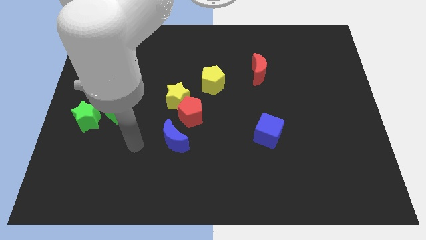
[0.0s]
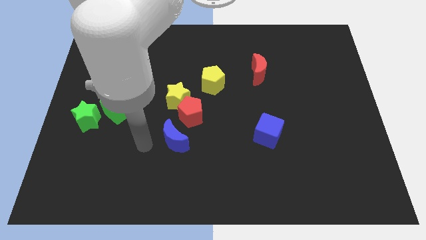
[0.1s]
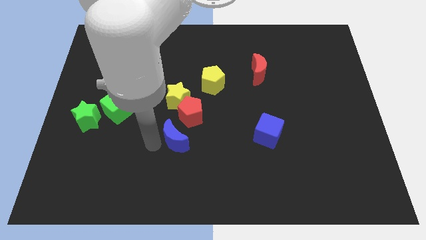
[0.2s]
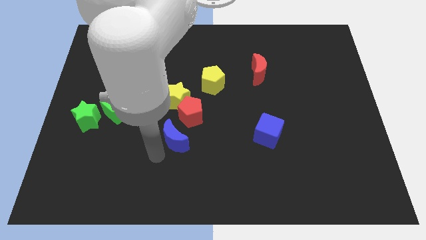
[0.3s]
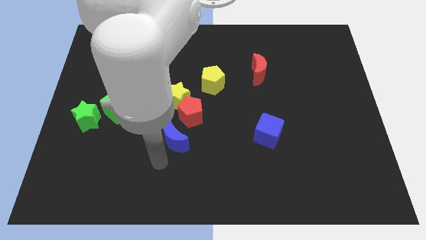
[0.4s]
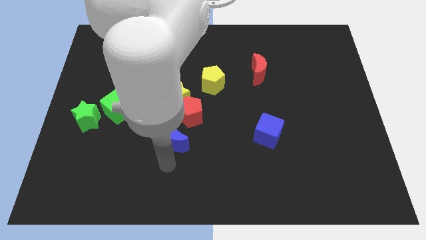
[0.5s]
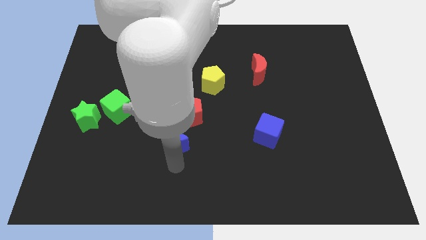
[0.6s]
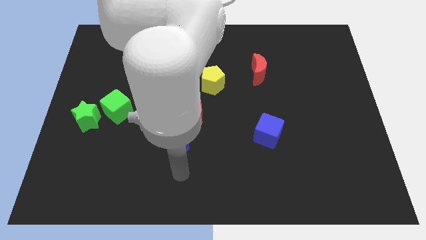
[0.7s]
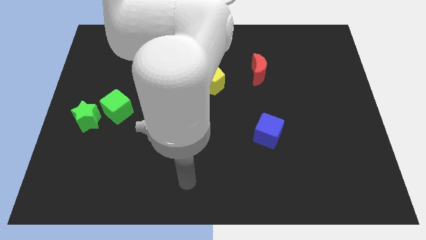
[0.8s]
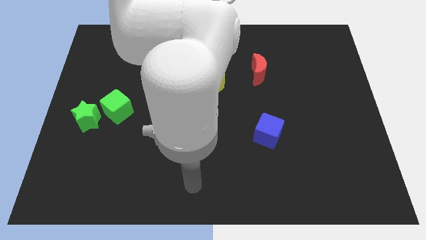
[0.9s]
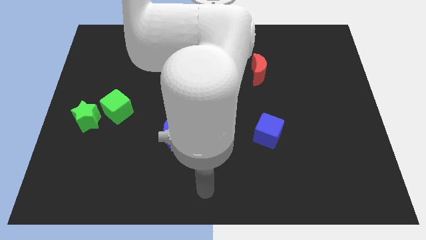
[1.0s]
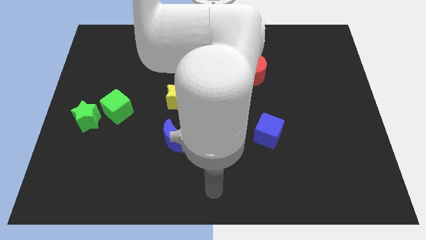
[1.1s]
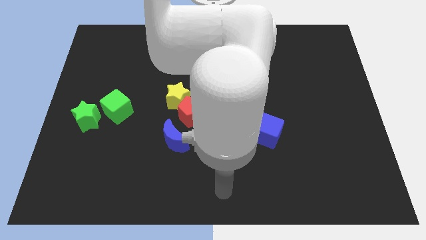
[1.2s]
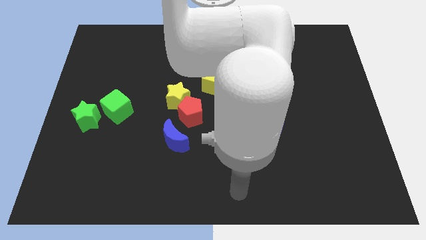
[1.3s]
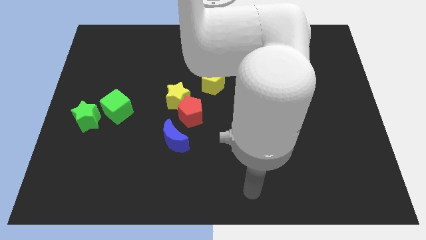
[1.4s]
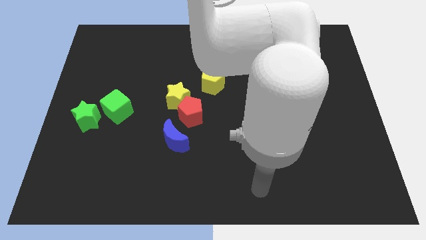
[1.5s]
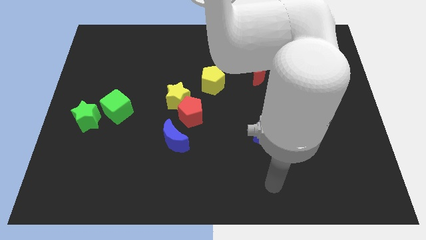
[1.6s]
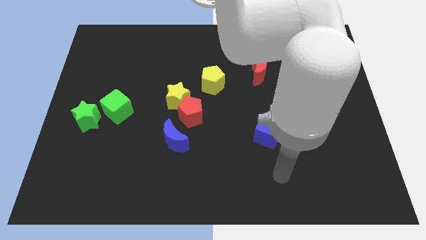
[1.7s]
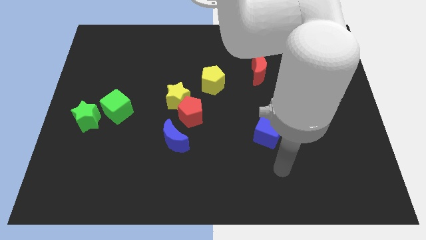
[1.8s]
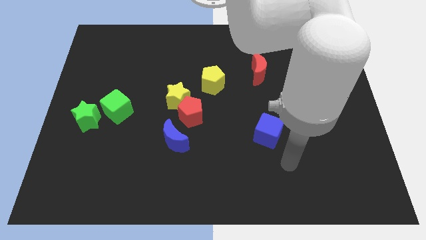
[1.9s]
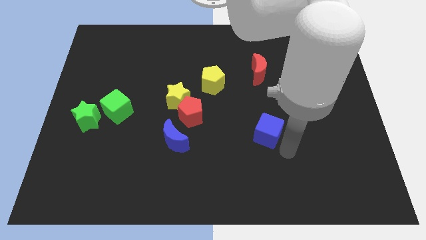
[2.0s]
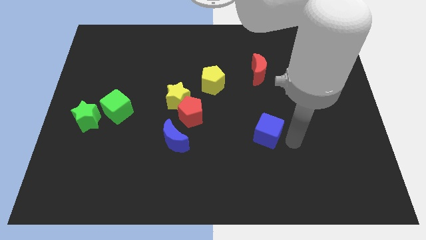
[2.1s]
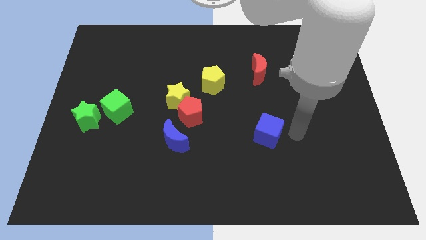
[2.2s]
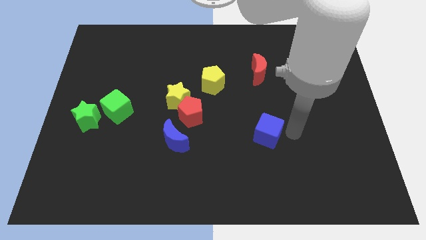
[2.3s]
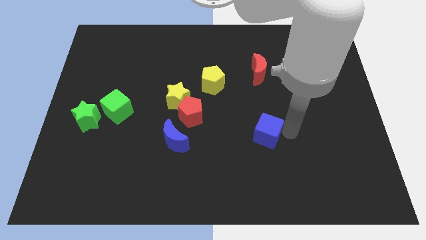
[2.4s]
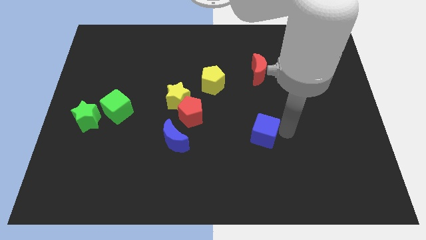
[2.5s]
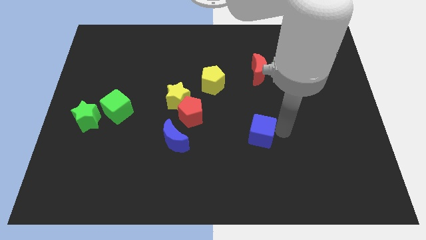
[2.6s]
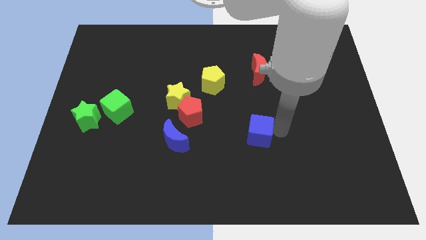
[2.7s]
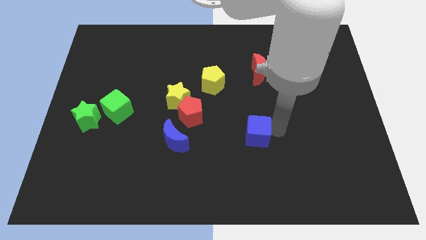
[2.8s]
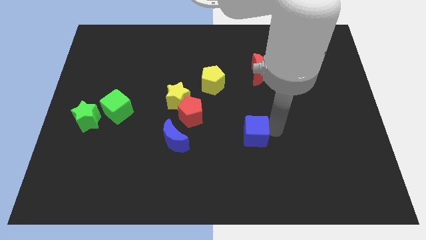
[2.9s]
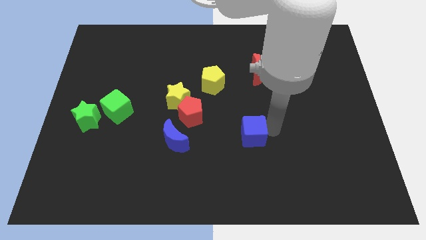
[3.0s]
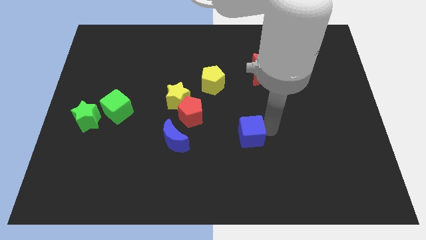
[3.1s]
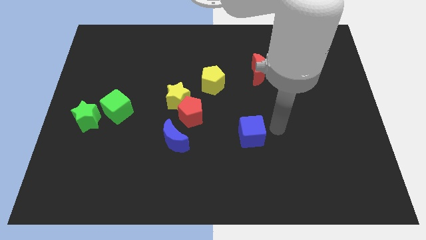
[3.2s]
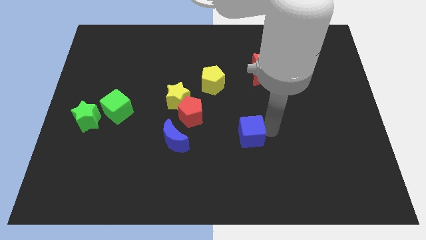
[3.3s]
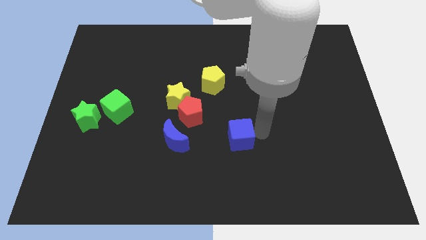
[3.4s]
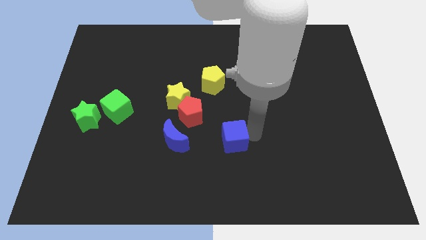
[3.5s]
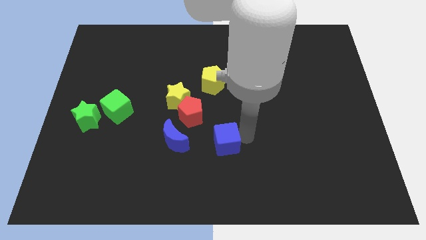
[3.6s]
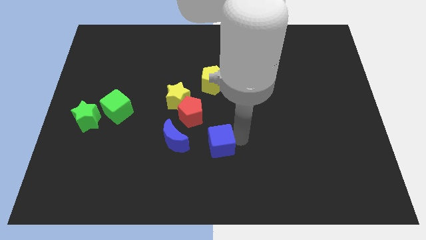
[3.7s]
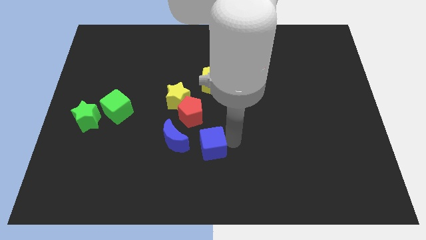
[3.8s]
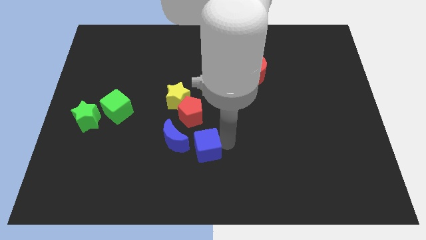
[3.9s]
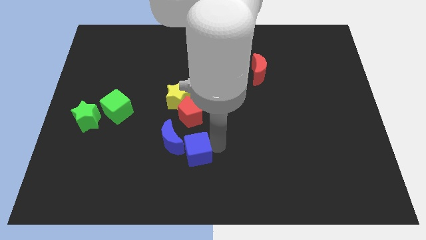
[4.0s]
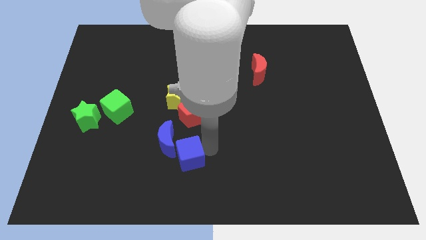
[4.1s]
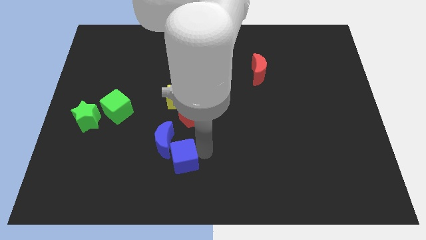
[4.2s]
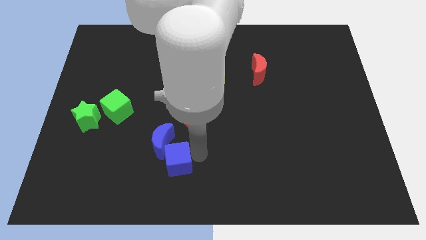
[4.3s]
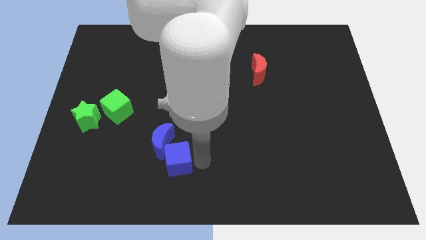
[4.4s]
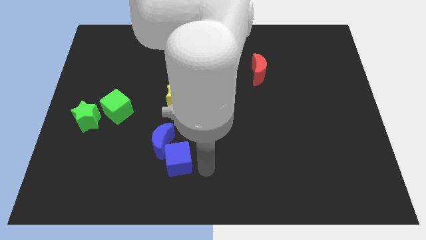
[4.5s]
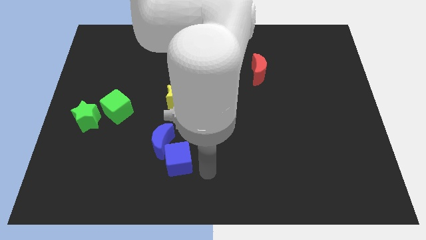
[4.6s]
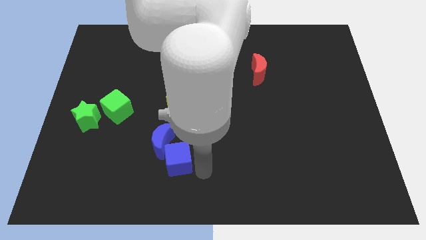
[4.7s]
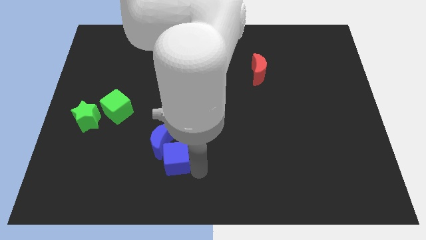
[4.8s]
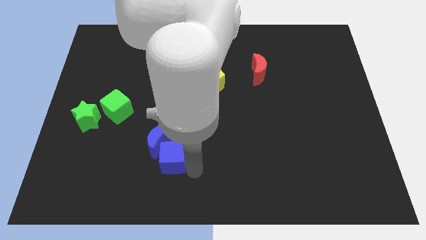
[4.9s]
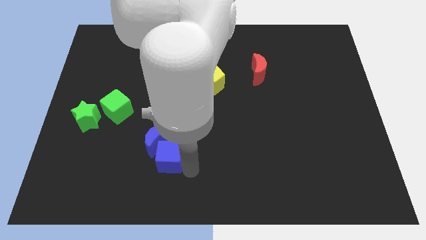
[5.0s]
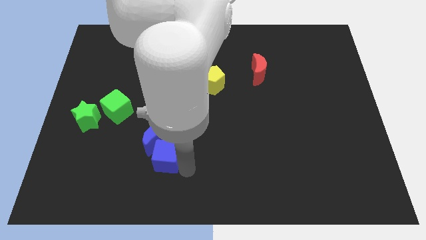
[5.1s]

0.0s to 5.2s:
move the blue cube left

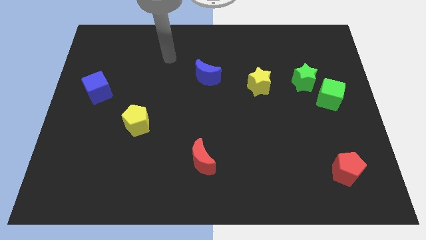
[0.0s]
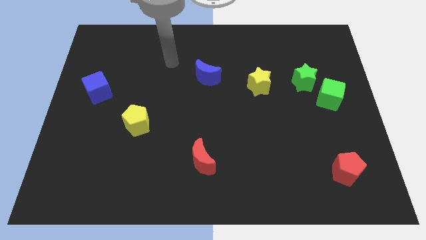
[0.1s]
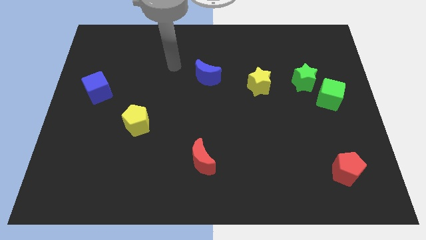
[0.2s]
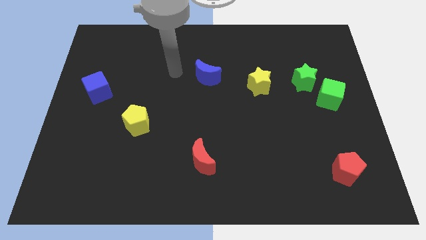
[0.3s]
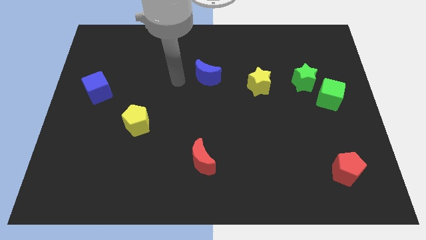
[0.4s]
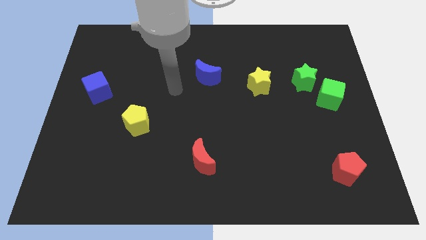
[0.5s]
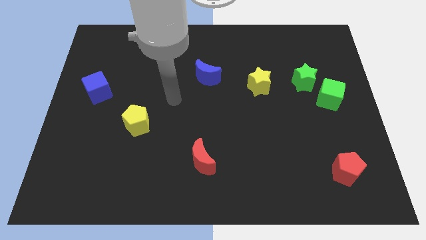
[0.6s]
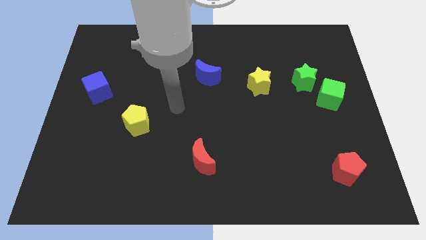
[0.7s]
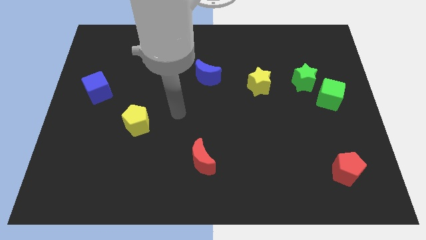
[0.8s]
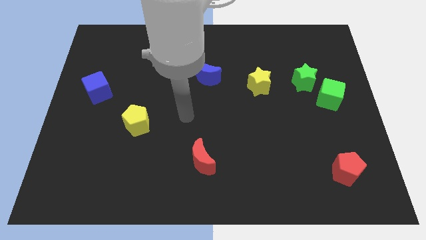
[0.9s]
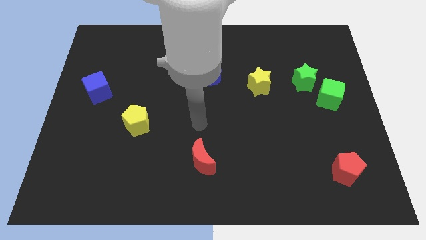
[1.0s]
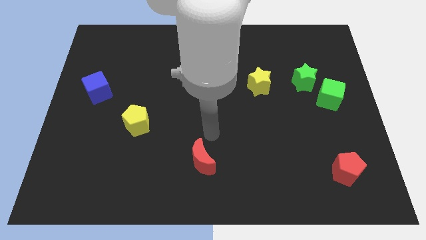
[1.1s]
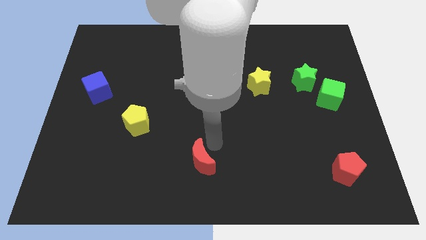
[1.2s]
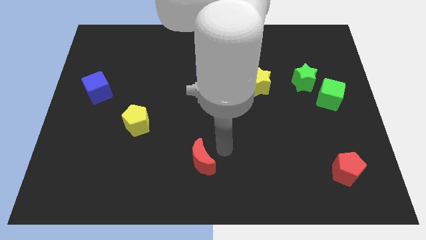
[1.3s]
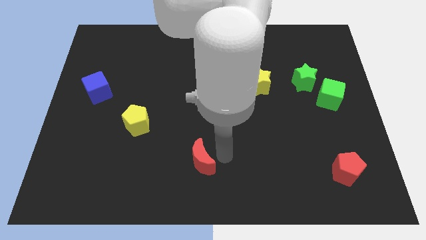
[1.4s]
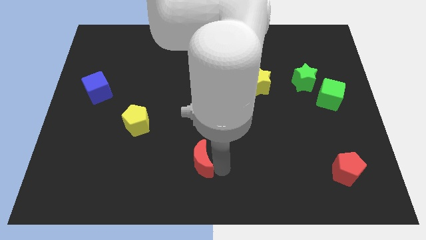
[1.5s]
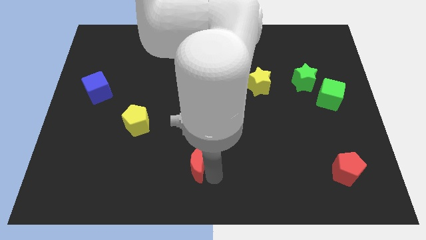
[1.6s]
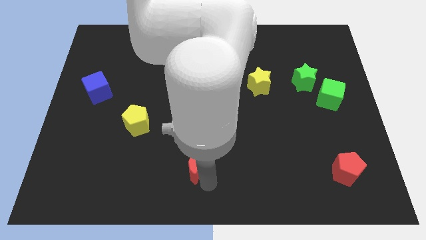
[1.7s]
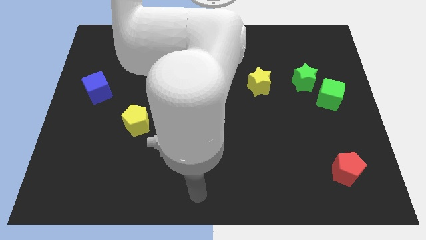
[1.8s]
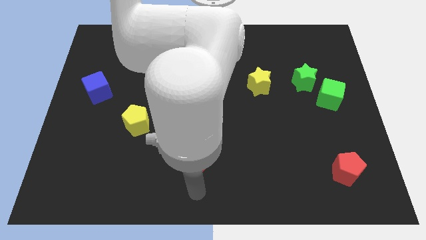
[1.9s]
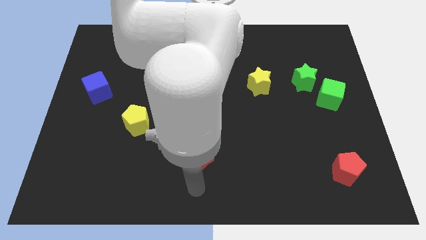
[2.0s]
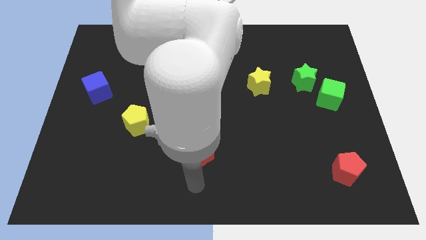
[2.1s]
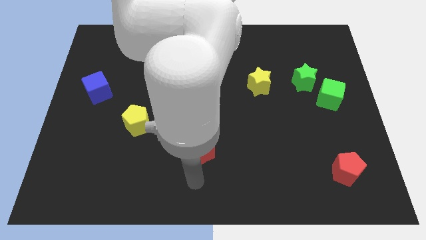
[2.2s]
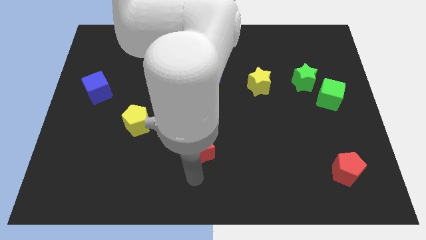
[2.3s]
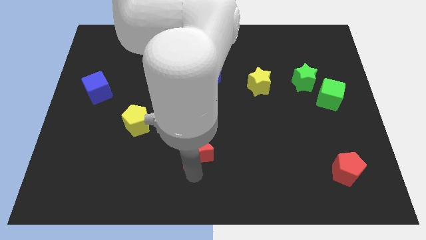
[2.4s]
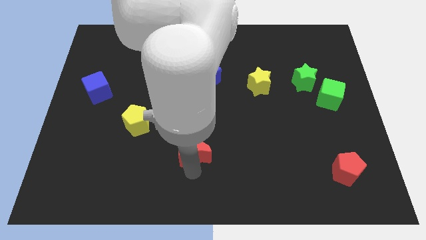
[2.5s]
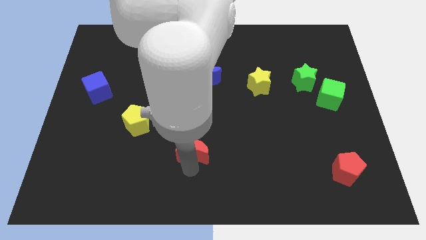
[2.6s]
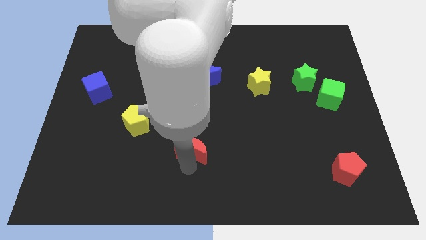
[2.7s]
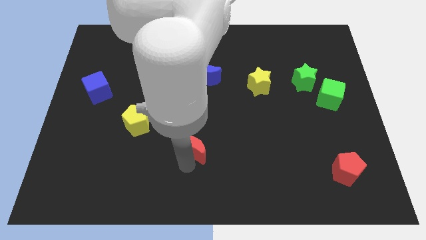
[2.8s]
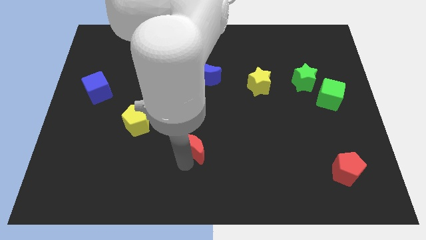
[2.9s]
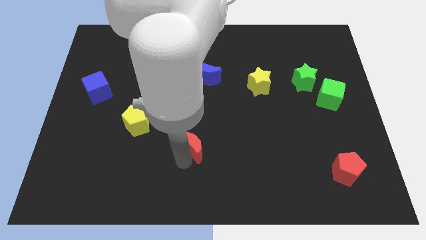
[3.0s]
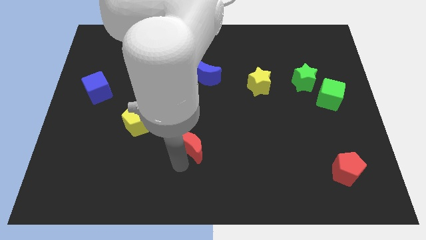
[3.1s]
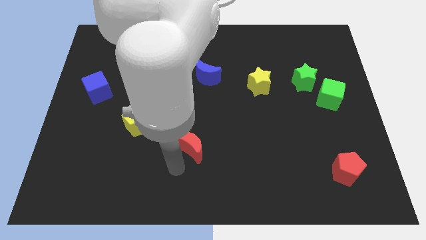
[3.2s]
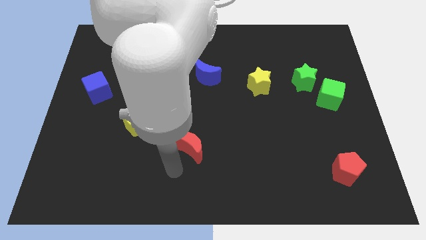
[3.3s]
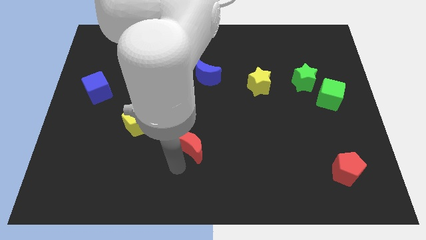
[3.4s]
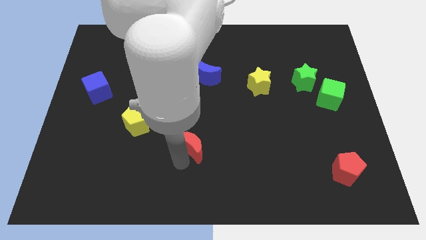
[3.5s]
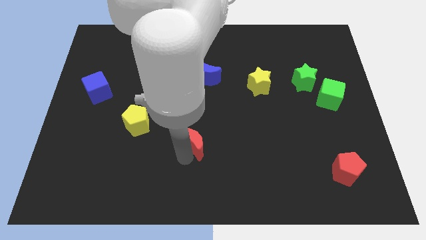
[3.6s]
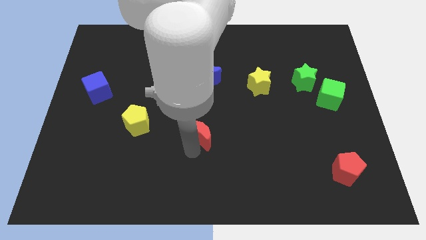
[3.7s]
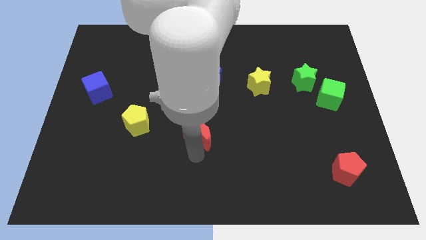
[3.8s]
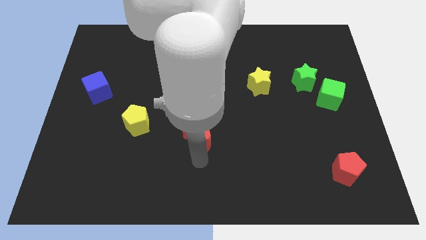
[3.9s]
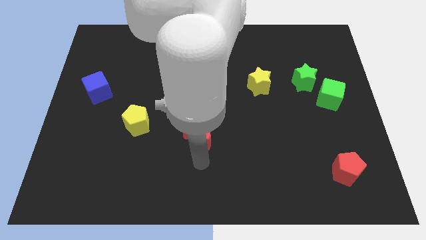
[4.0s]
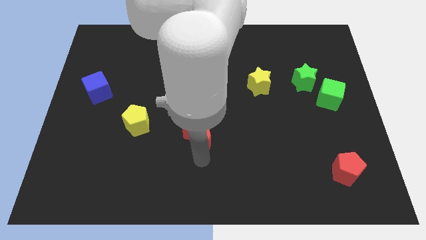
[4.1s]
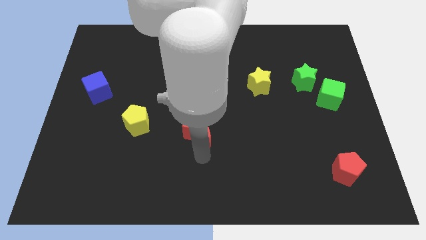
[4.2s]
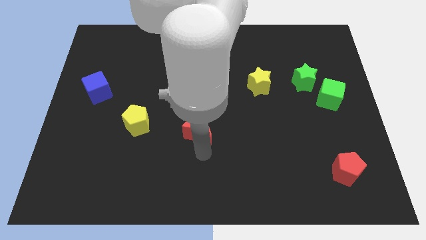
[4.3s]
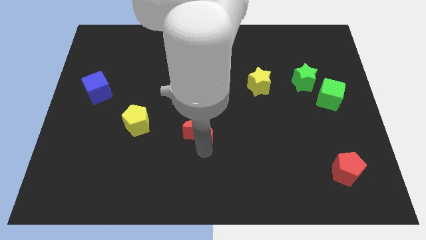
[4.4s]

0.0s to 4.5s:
slide the red moon a bit up
